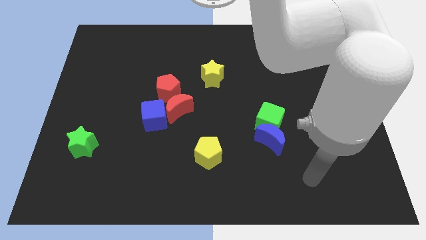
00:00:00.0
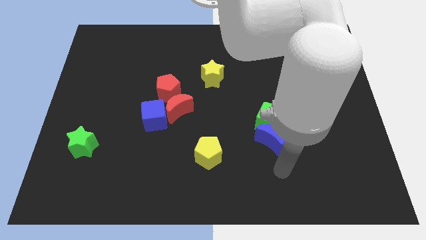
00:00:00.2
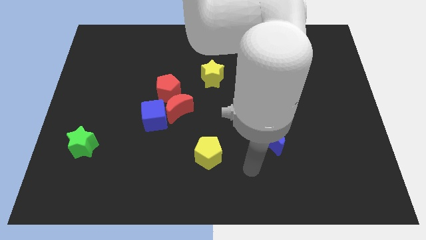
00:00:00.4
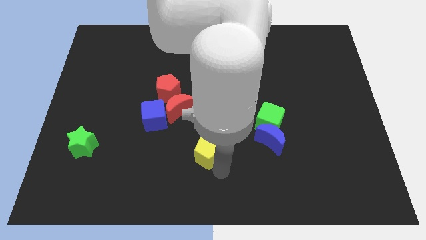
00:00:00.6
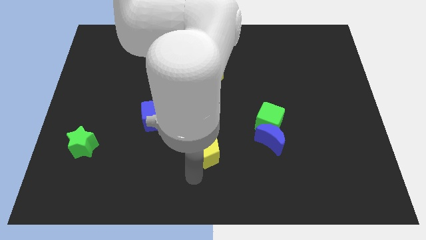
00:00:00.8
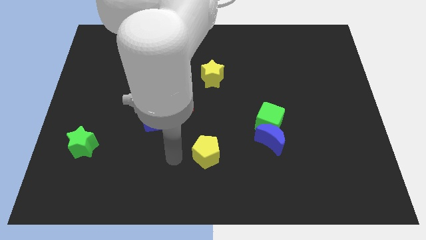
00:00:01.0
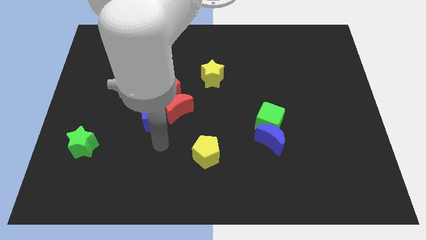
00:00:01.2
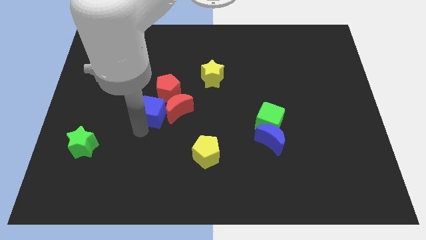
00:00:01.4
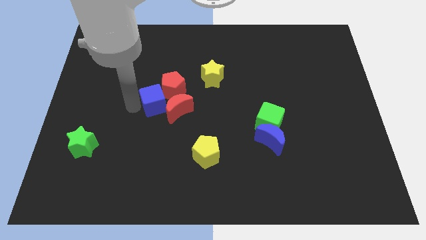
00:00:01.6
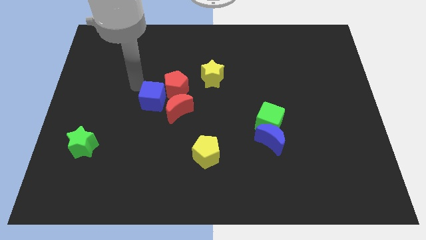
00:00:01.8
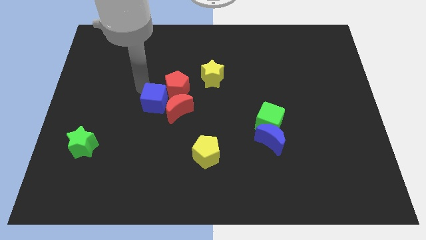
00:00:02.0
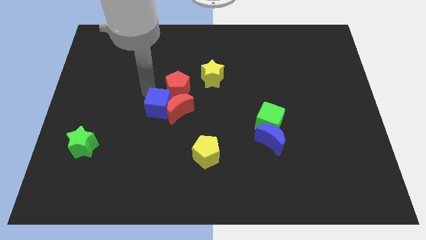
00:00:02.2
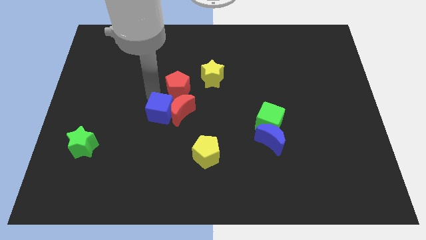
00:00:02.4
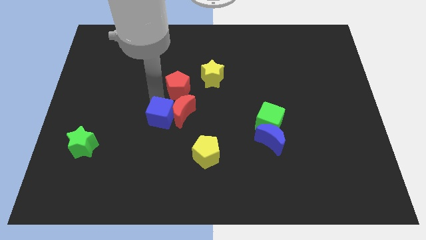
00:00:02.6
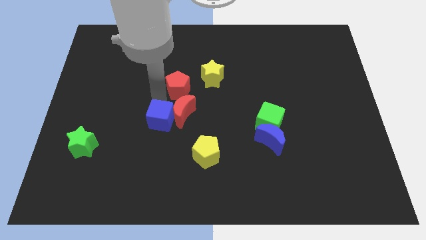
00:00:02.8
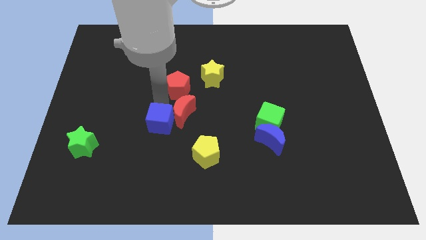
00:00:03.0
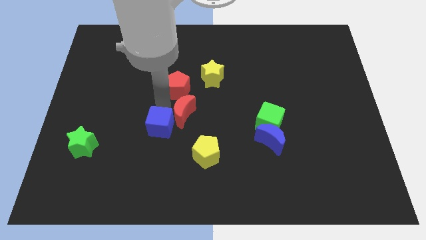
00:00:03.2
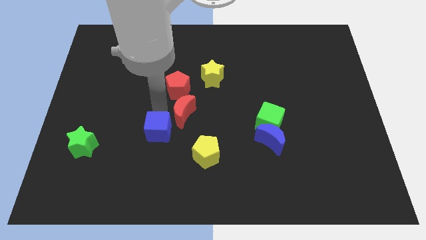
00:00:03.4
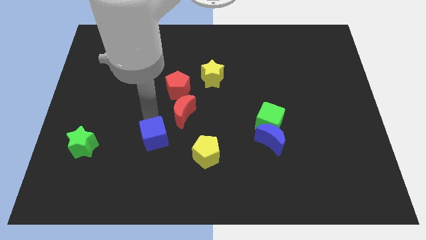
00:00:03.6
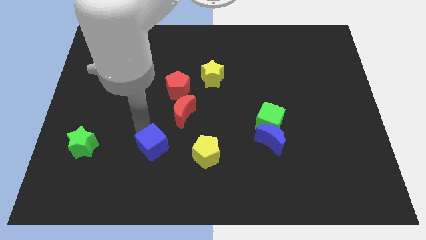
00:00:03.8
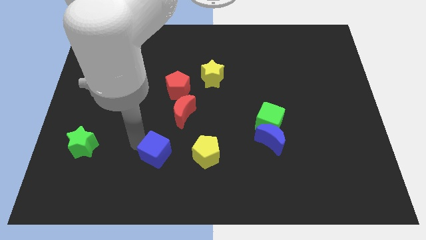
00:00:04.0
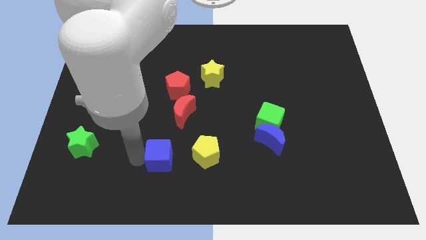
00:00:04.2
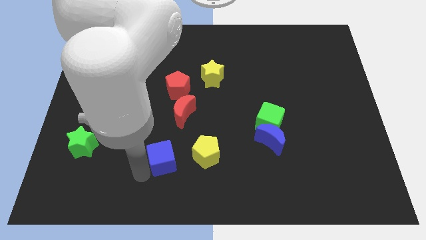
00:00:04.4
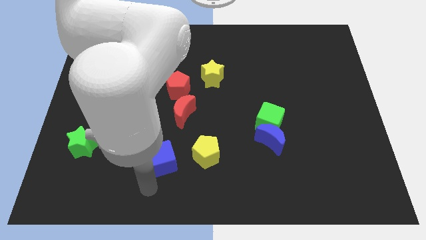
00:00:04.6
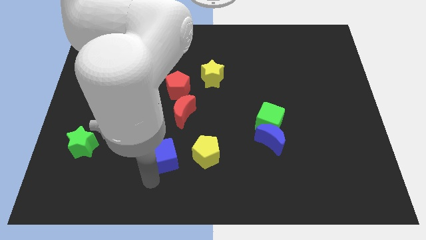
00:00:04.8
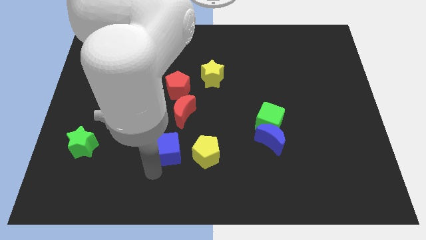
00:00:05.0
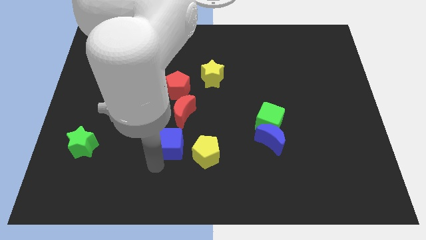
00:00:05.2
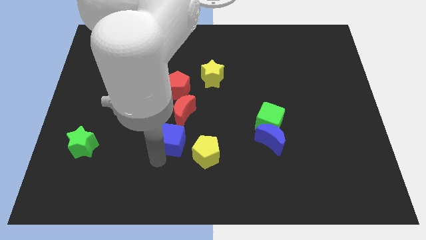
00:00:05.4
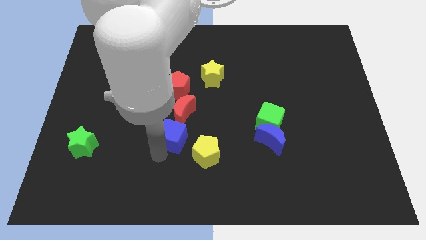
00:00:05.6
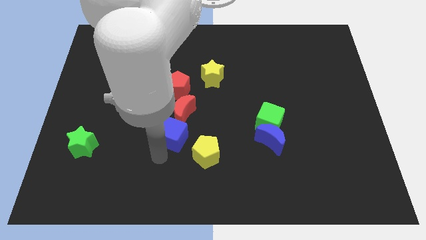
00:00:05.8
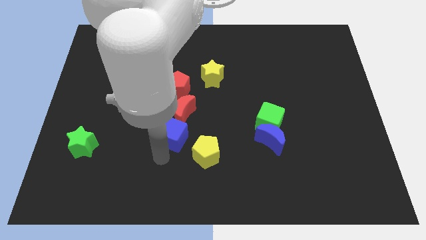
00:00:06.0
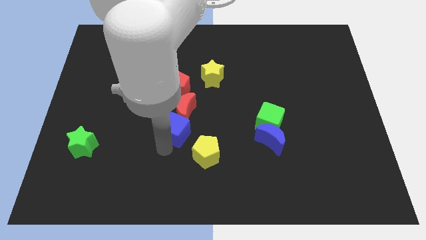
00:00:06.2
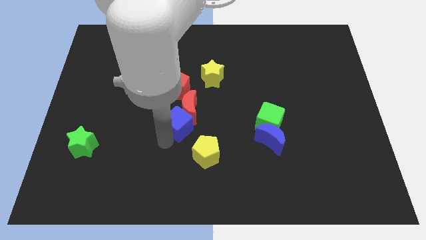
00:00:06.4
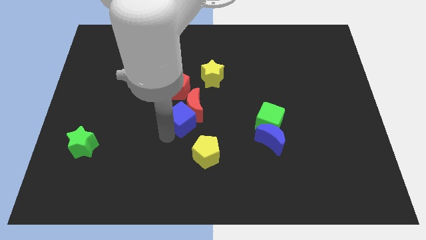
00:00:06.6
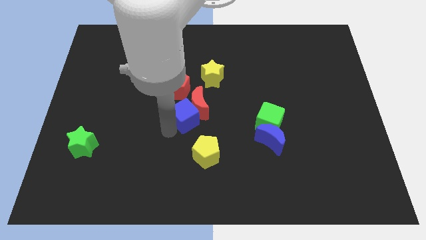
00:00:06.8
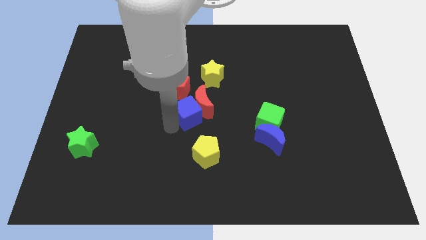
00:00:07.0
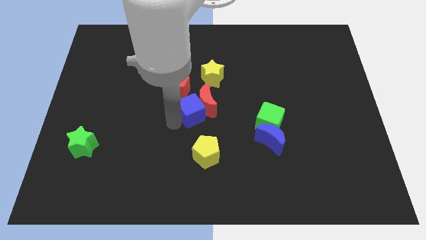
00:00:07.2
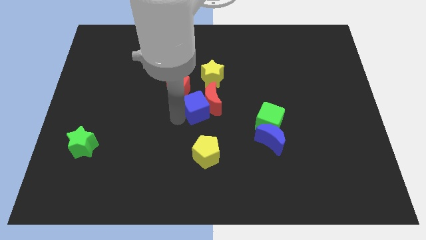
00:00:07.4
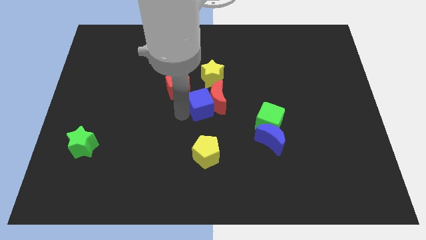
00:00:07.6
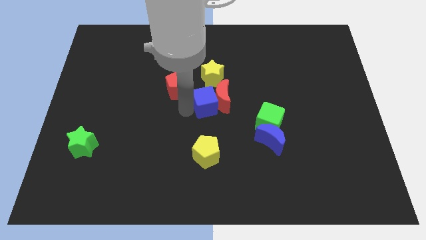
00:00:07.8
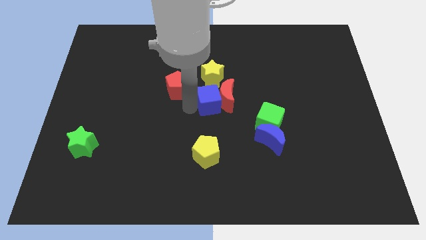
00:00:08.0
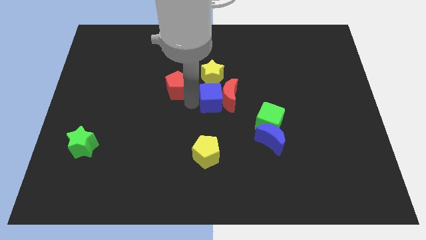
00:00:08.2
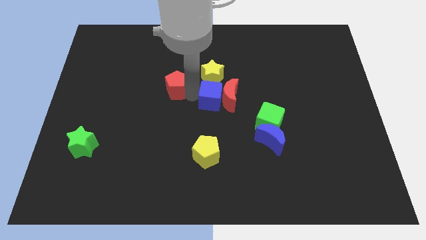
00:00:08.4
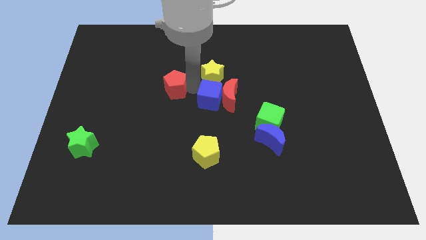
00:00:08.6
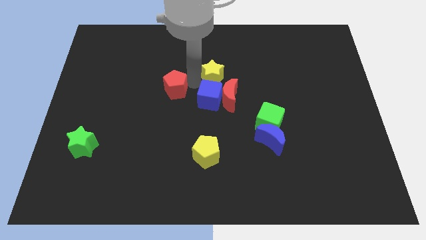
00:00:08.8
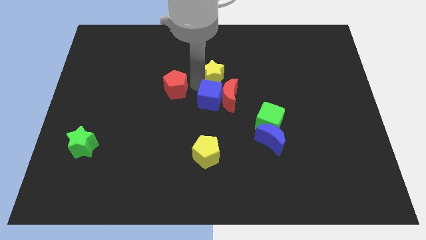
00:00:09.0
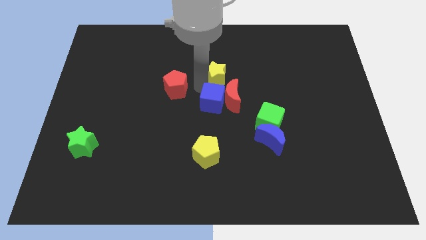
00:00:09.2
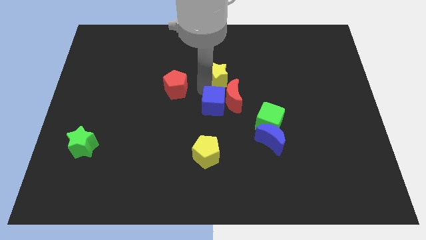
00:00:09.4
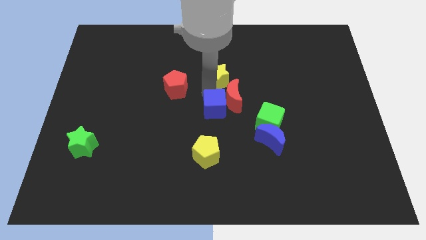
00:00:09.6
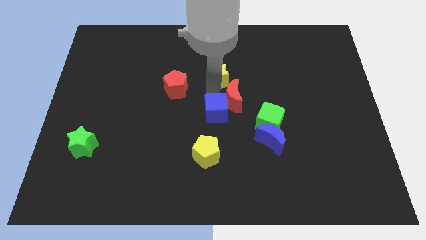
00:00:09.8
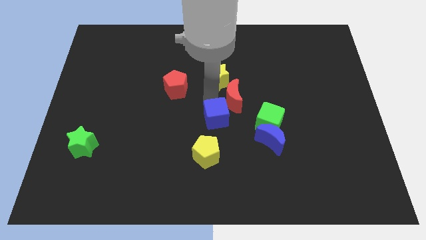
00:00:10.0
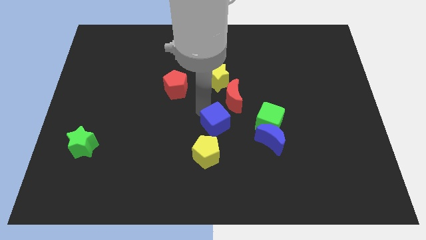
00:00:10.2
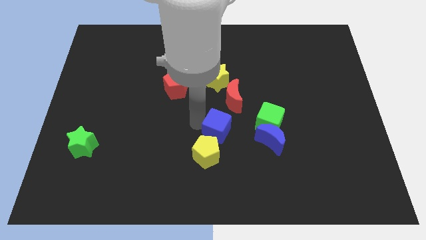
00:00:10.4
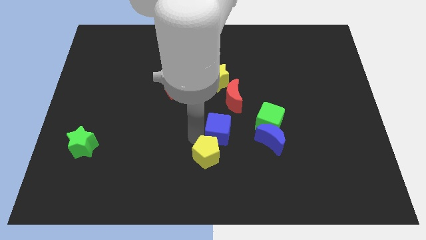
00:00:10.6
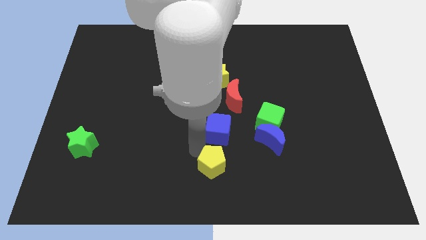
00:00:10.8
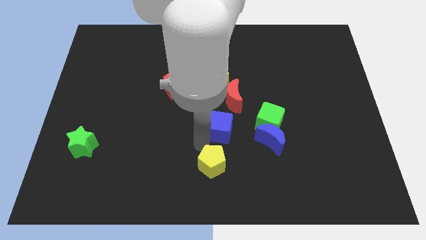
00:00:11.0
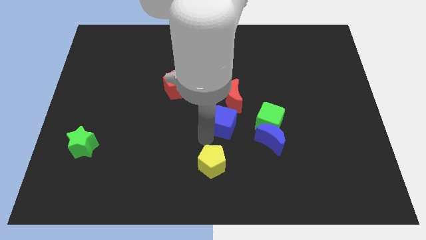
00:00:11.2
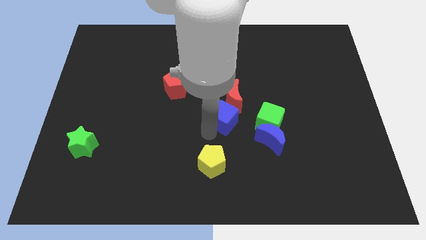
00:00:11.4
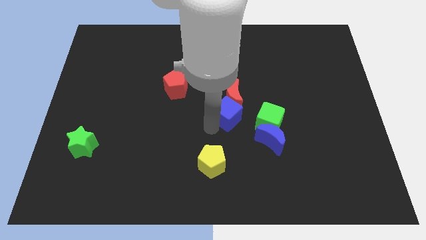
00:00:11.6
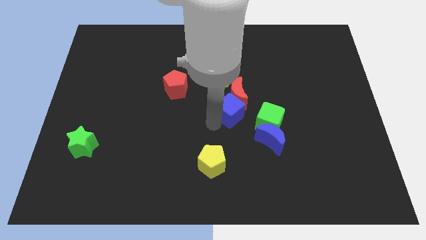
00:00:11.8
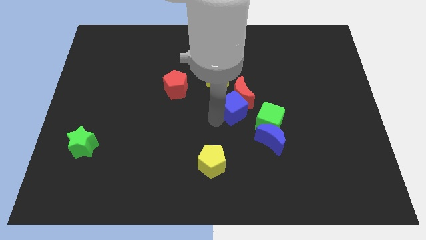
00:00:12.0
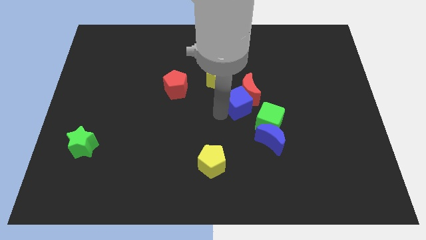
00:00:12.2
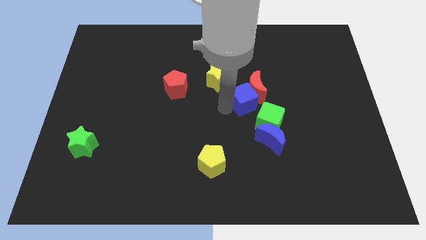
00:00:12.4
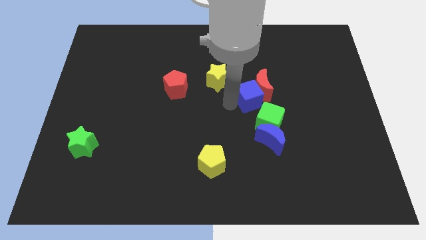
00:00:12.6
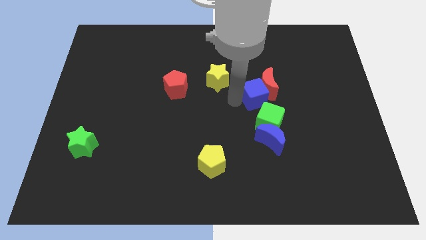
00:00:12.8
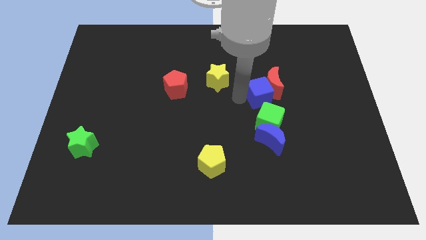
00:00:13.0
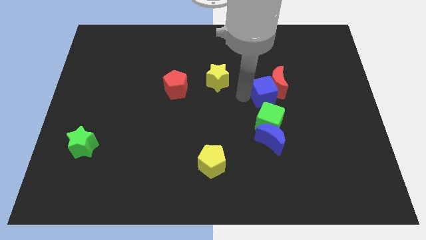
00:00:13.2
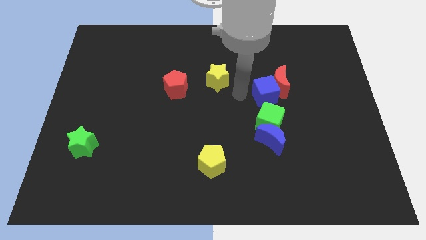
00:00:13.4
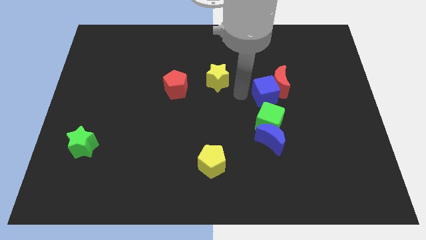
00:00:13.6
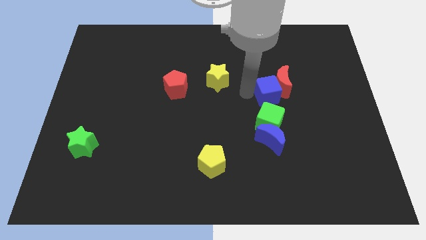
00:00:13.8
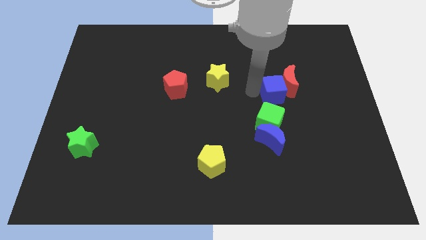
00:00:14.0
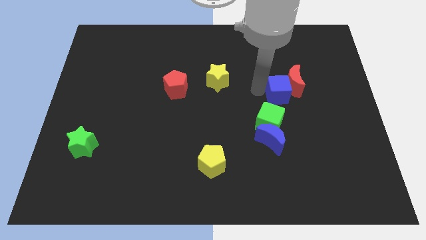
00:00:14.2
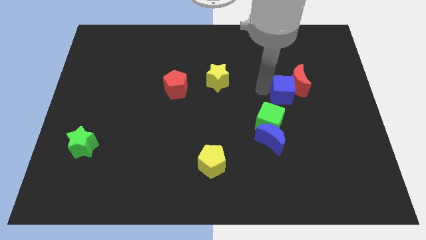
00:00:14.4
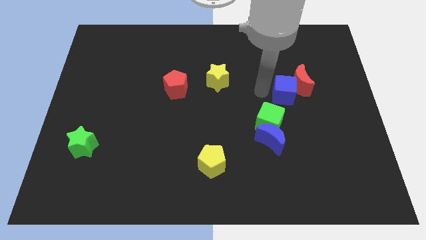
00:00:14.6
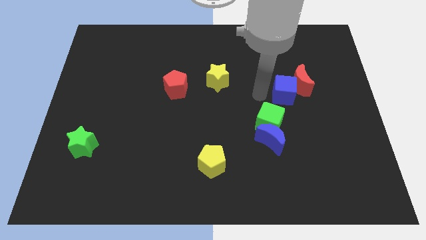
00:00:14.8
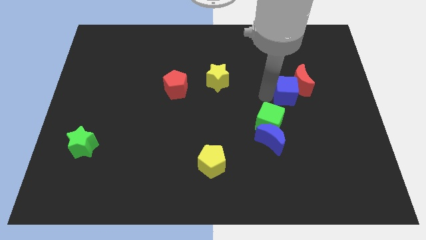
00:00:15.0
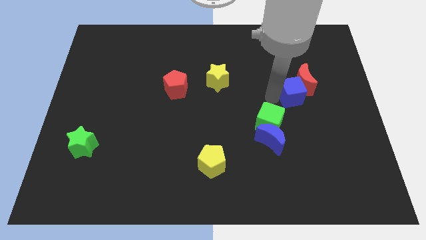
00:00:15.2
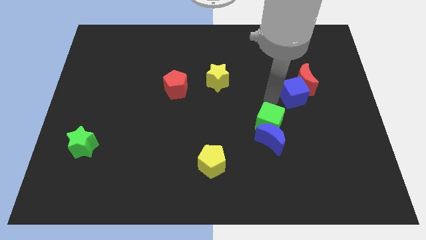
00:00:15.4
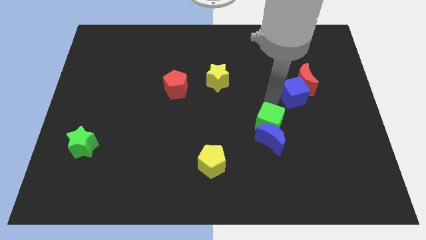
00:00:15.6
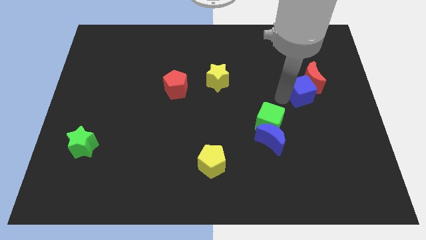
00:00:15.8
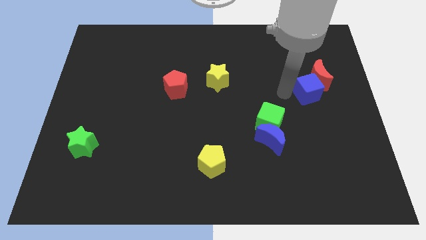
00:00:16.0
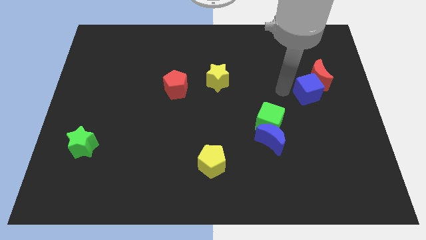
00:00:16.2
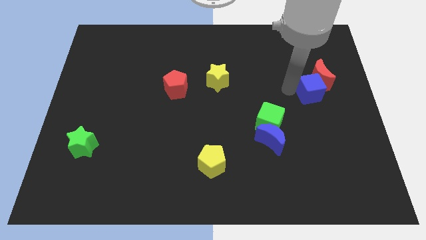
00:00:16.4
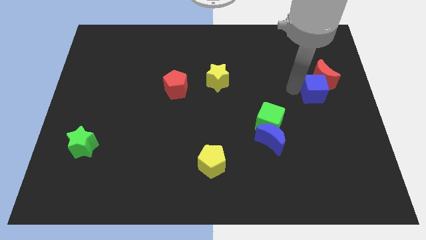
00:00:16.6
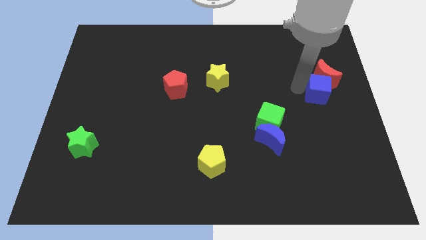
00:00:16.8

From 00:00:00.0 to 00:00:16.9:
push the blue cube to the right side
